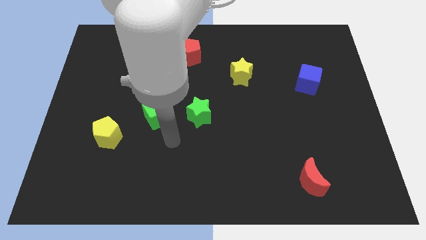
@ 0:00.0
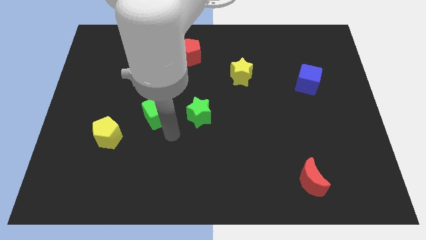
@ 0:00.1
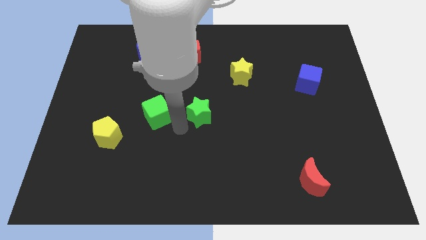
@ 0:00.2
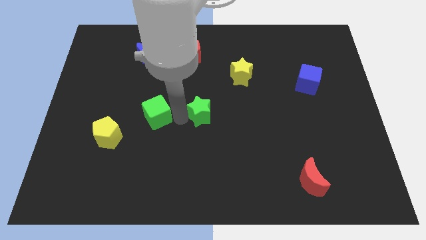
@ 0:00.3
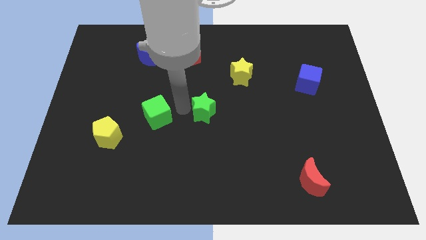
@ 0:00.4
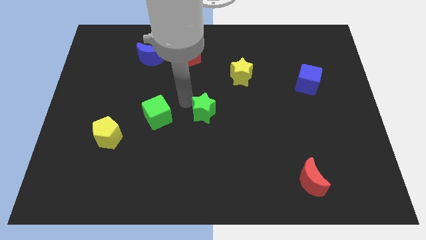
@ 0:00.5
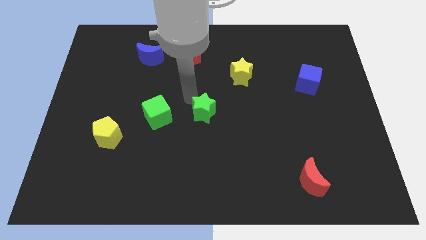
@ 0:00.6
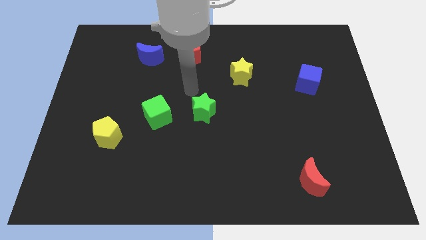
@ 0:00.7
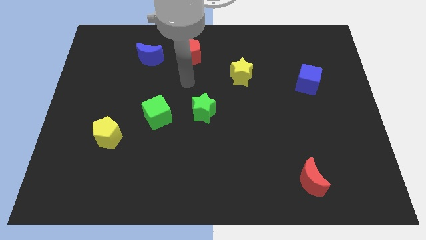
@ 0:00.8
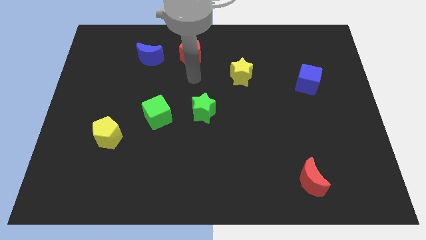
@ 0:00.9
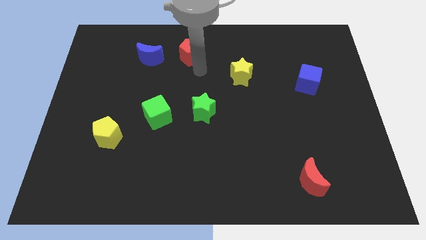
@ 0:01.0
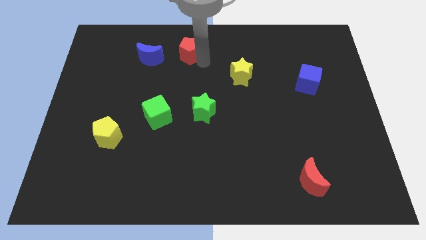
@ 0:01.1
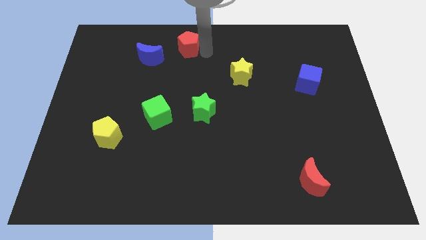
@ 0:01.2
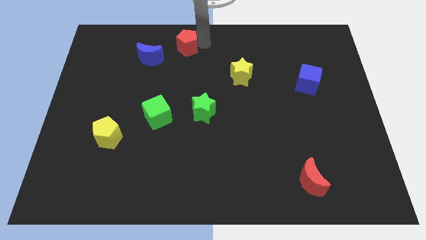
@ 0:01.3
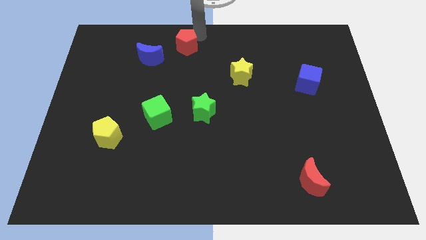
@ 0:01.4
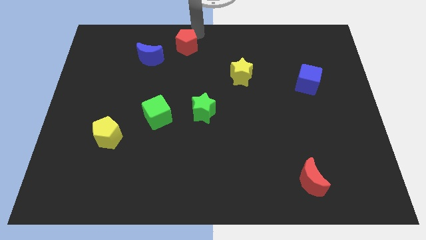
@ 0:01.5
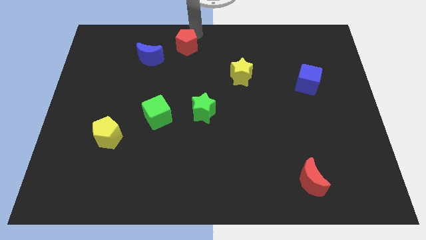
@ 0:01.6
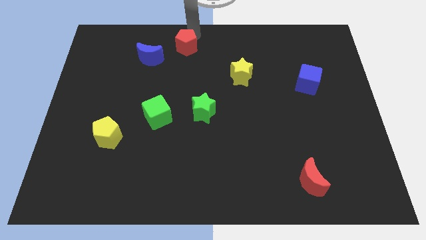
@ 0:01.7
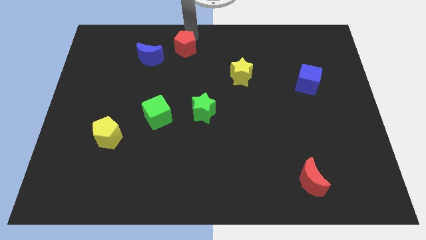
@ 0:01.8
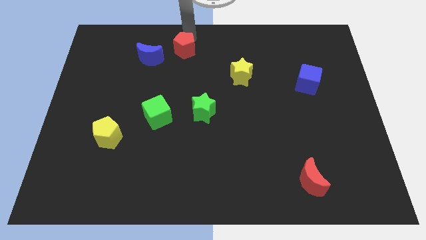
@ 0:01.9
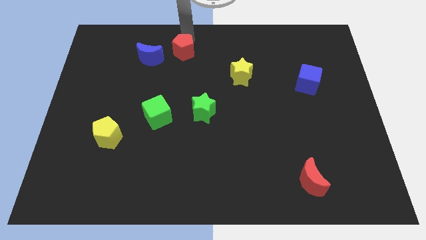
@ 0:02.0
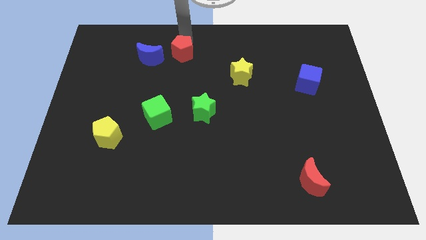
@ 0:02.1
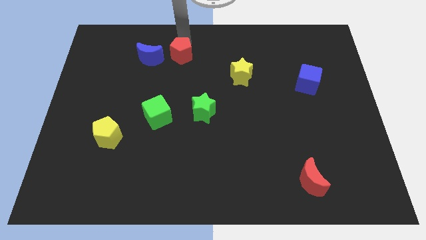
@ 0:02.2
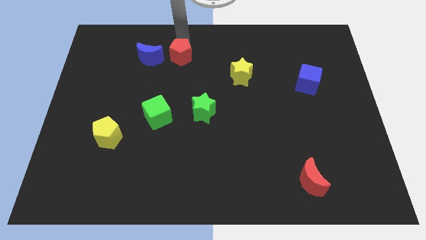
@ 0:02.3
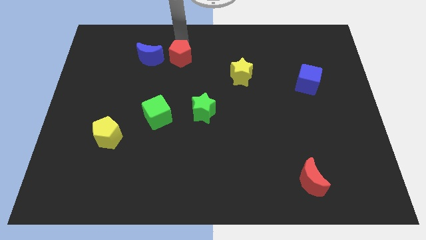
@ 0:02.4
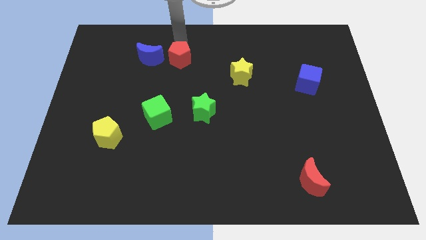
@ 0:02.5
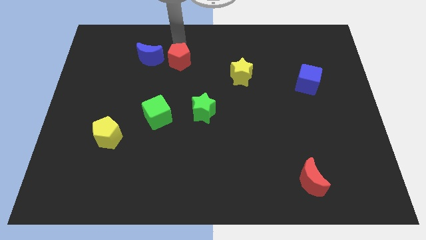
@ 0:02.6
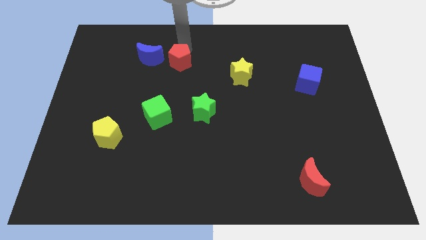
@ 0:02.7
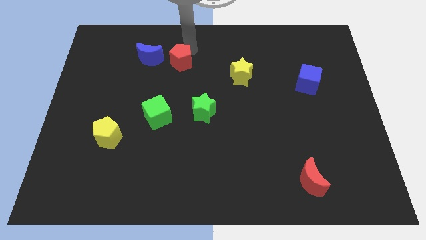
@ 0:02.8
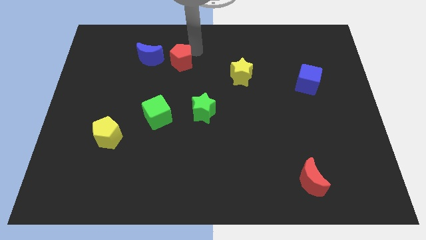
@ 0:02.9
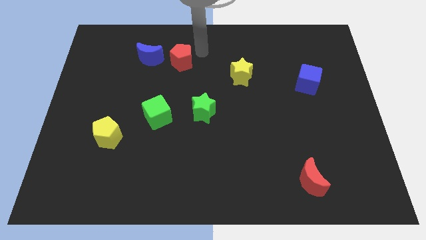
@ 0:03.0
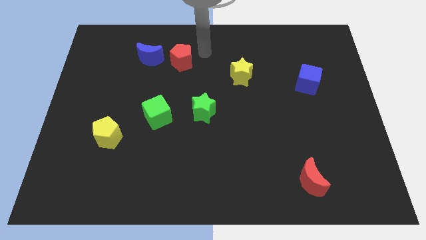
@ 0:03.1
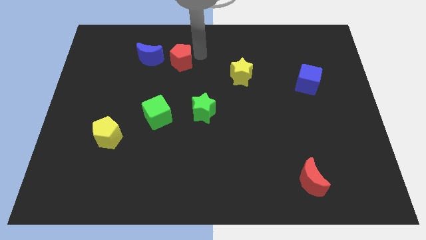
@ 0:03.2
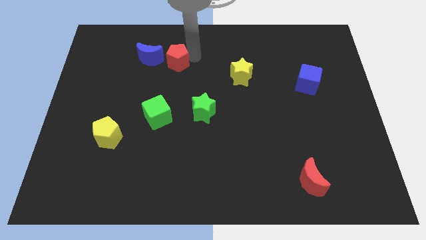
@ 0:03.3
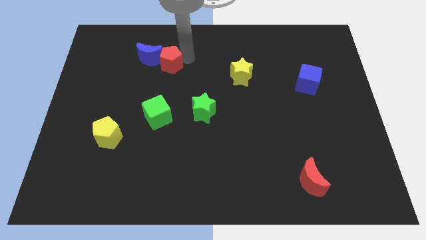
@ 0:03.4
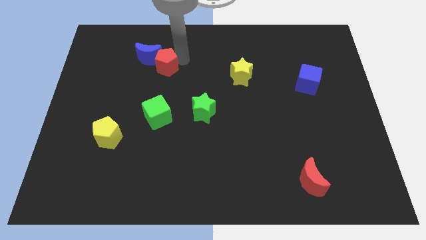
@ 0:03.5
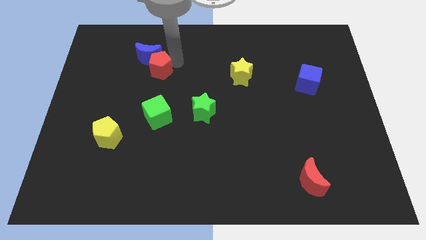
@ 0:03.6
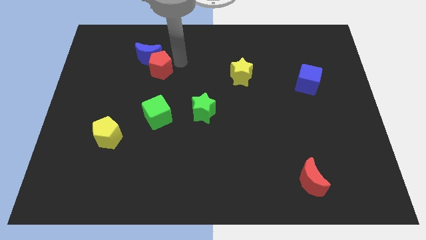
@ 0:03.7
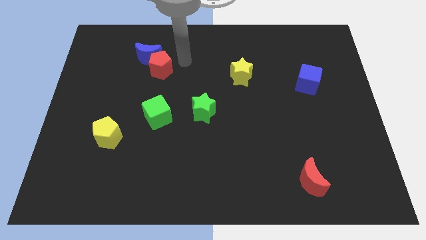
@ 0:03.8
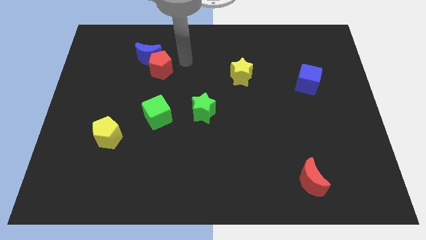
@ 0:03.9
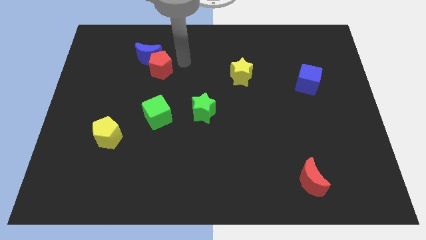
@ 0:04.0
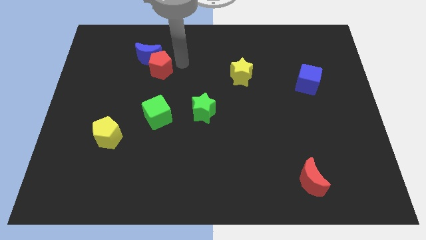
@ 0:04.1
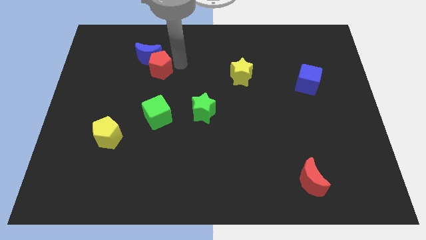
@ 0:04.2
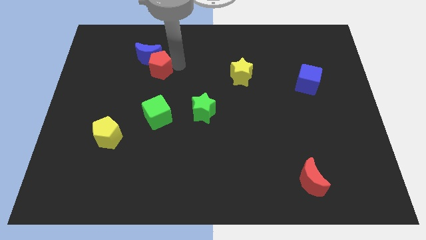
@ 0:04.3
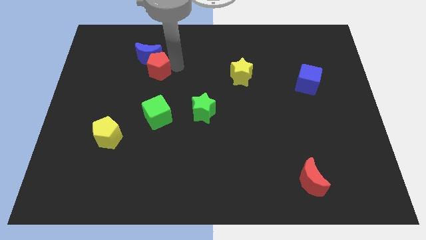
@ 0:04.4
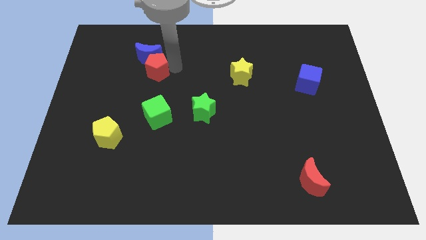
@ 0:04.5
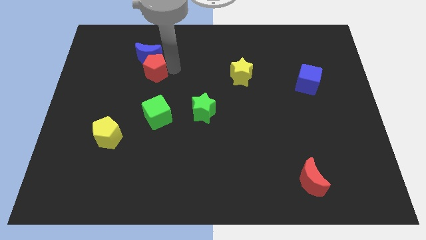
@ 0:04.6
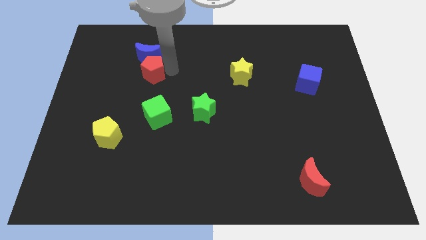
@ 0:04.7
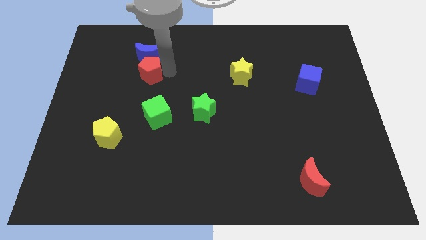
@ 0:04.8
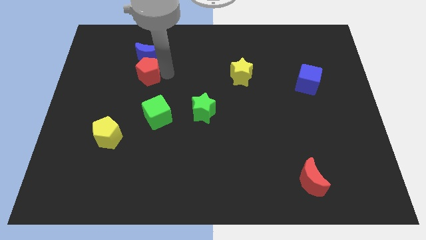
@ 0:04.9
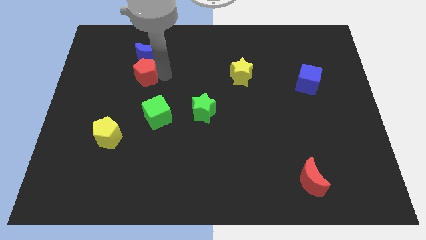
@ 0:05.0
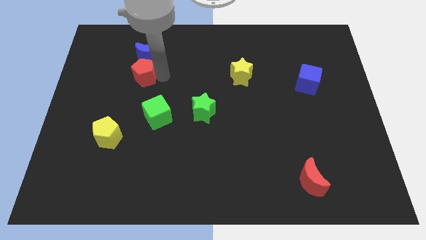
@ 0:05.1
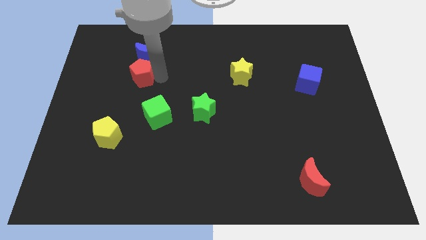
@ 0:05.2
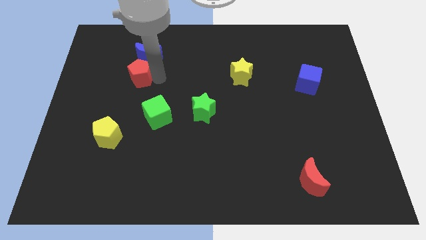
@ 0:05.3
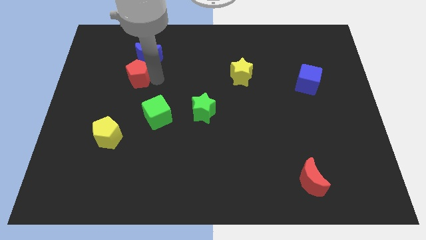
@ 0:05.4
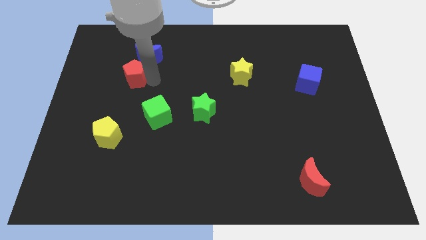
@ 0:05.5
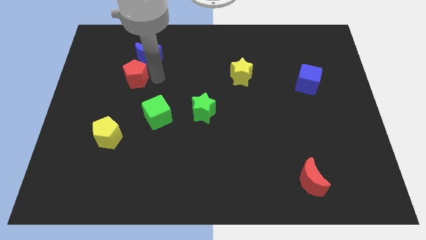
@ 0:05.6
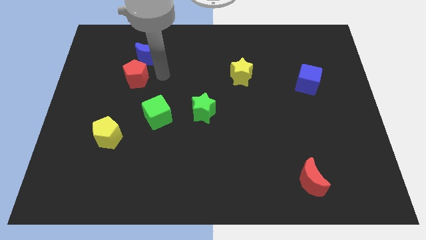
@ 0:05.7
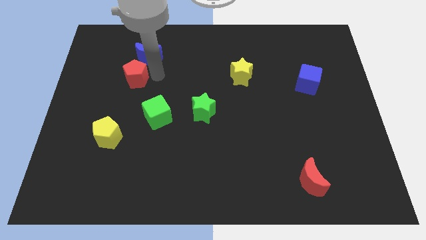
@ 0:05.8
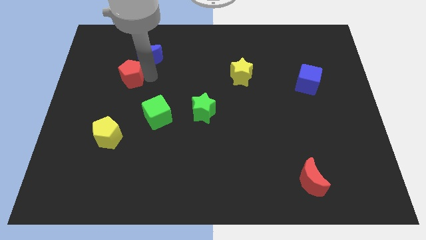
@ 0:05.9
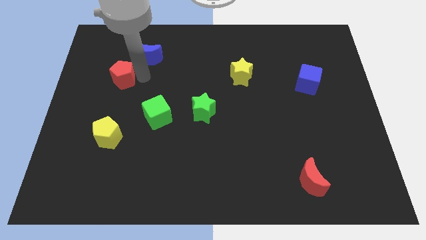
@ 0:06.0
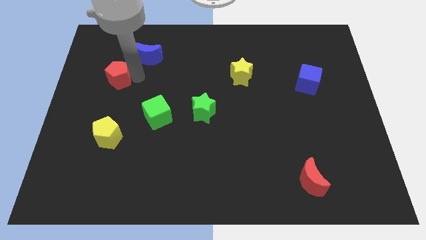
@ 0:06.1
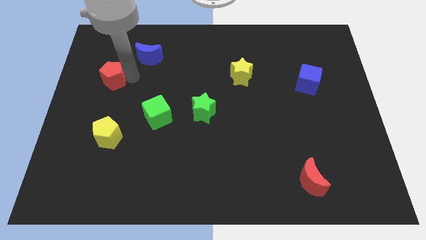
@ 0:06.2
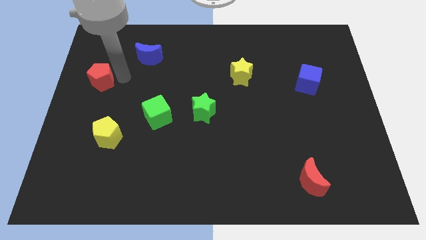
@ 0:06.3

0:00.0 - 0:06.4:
slide the red pentagon to the left side
